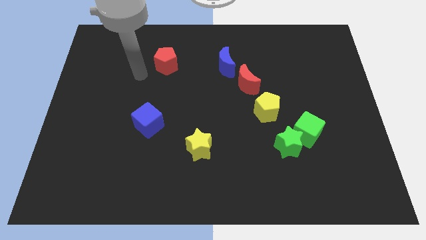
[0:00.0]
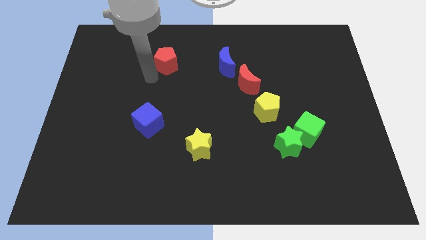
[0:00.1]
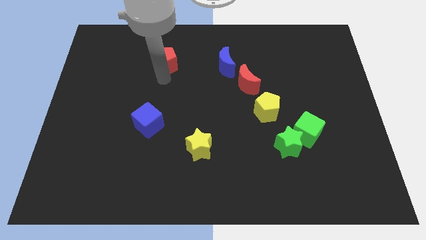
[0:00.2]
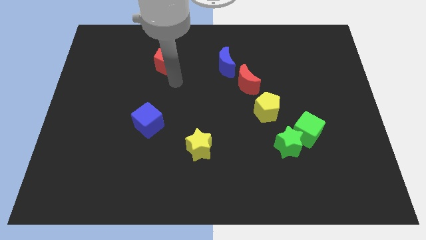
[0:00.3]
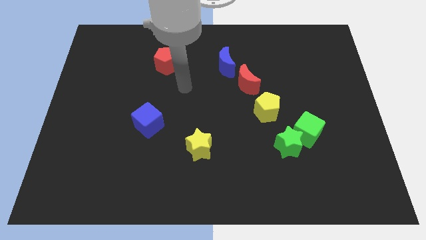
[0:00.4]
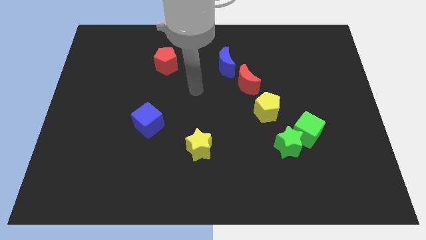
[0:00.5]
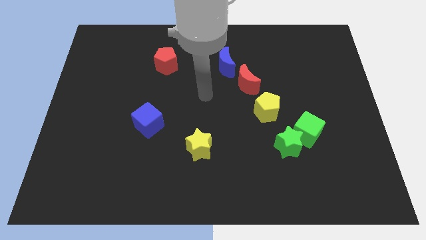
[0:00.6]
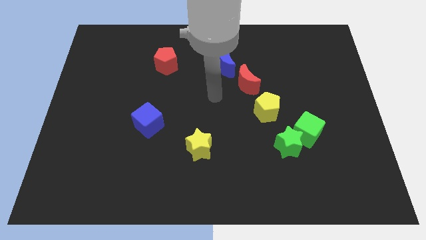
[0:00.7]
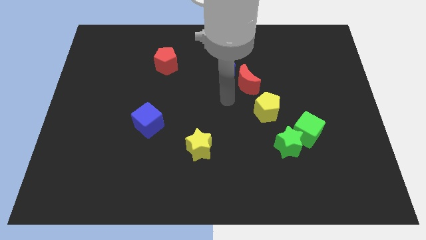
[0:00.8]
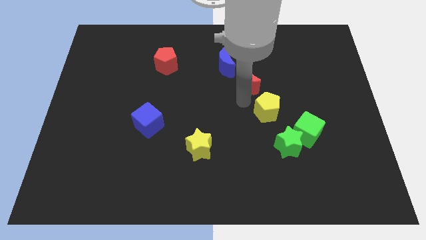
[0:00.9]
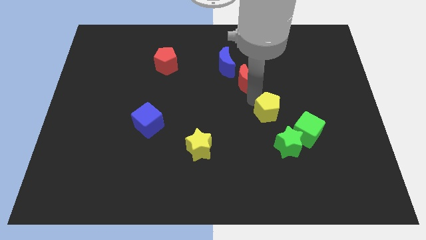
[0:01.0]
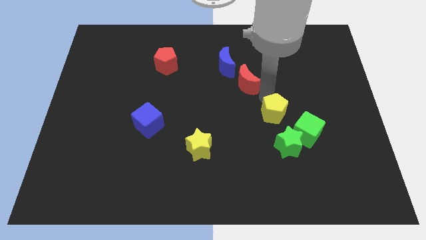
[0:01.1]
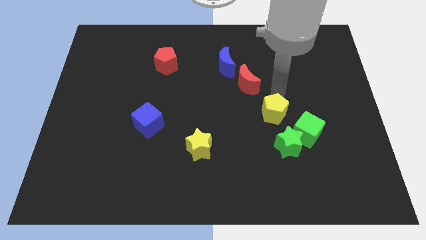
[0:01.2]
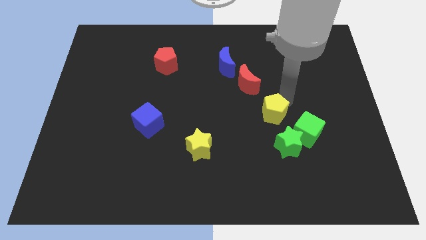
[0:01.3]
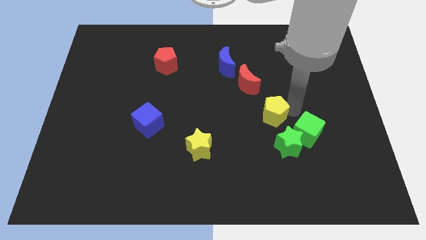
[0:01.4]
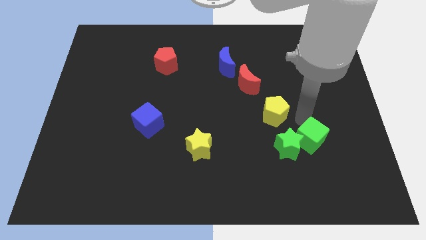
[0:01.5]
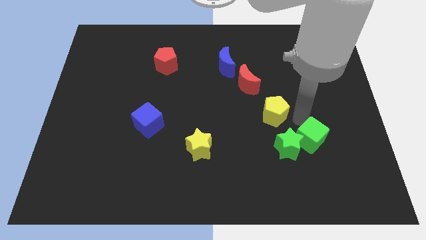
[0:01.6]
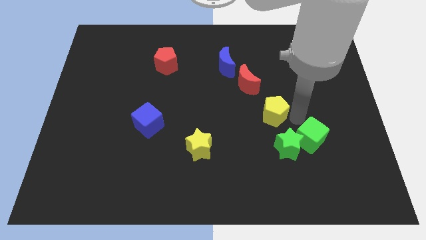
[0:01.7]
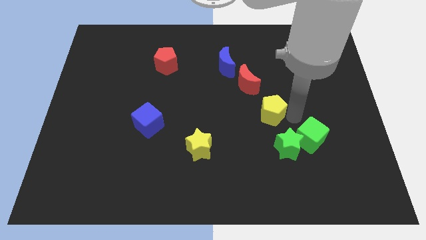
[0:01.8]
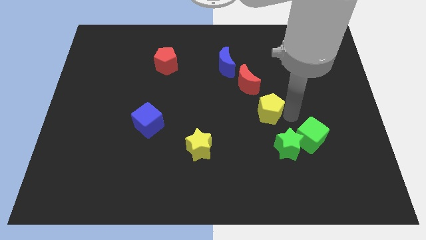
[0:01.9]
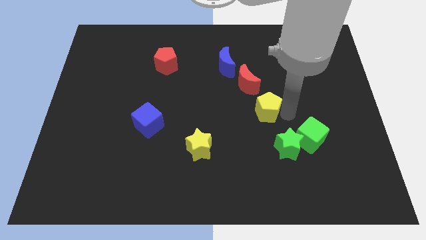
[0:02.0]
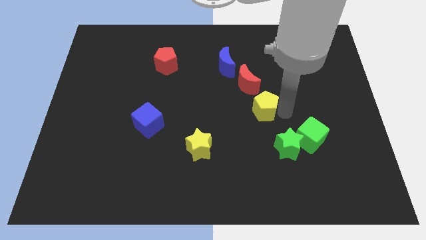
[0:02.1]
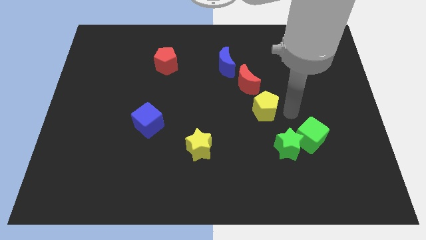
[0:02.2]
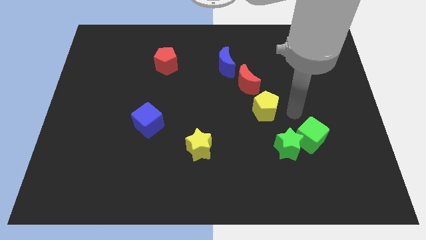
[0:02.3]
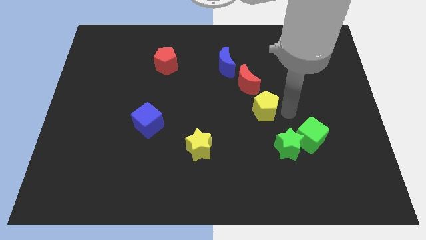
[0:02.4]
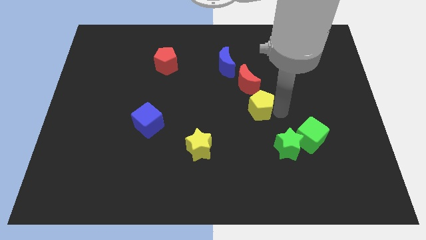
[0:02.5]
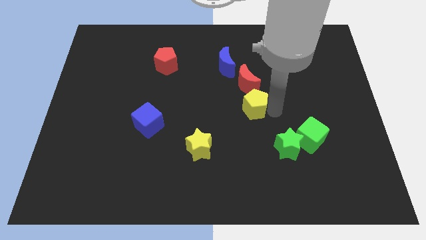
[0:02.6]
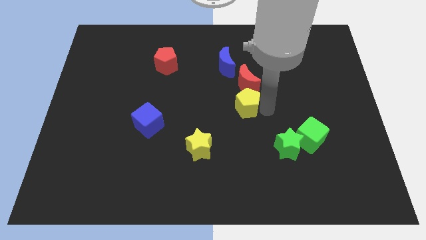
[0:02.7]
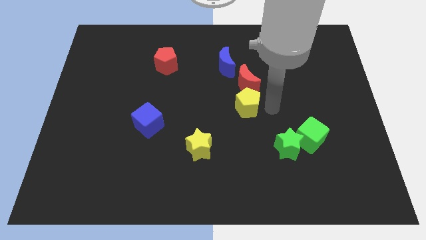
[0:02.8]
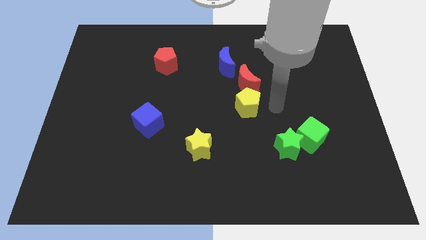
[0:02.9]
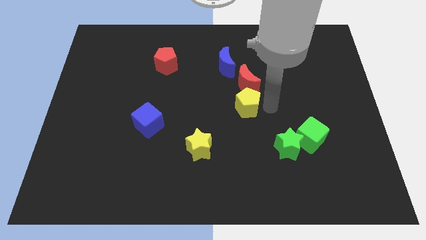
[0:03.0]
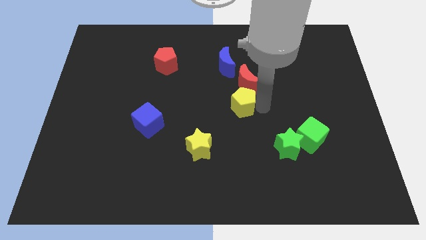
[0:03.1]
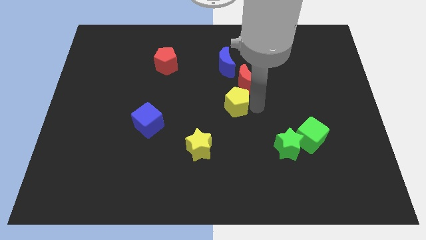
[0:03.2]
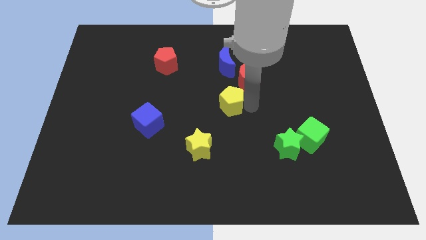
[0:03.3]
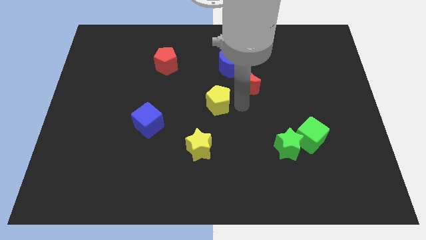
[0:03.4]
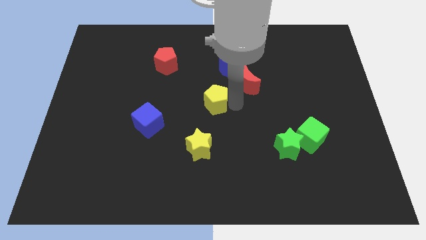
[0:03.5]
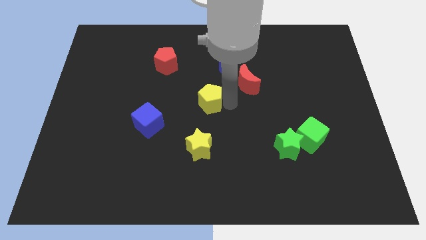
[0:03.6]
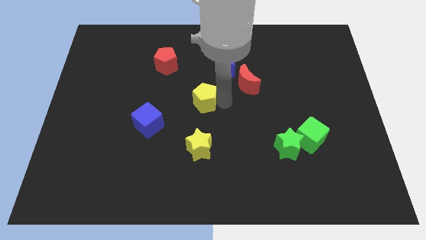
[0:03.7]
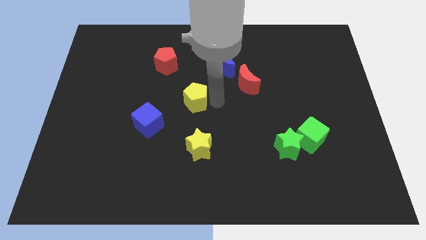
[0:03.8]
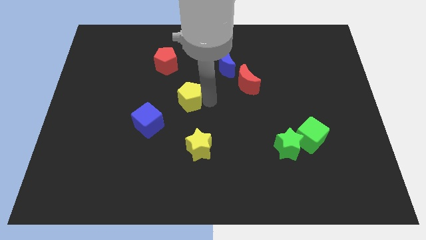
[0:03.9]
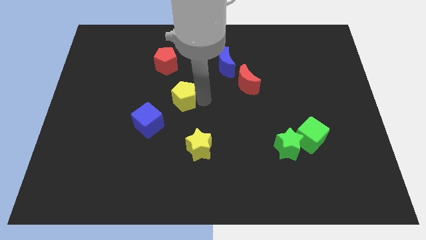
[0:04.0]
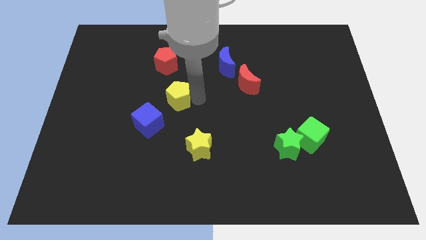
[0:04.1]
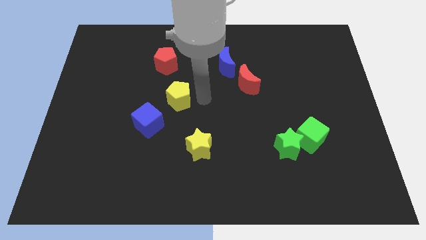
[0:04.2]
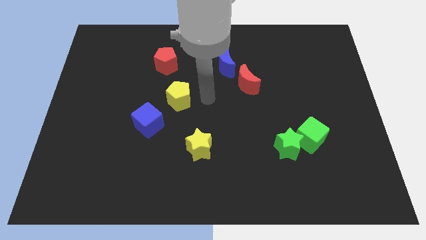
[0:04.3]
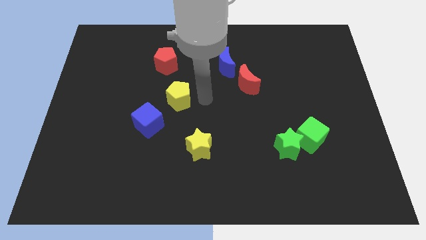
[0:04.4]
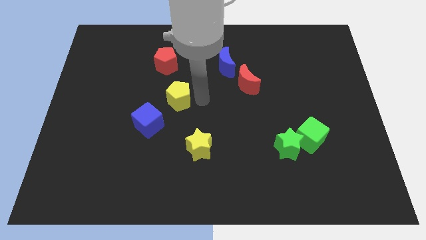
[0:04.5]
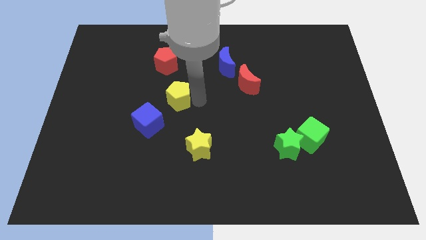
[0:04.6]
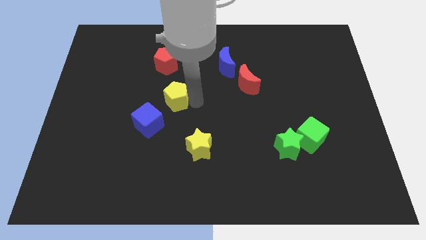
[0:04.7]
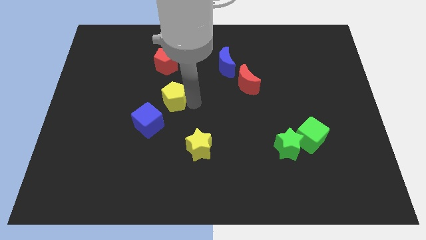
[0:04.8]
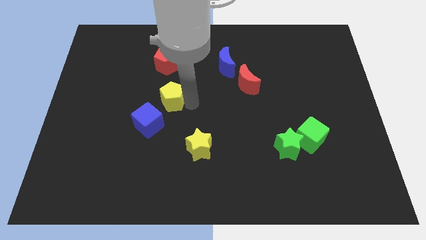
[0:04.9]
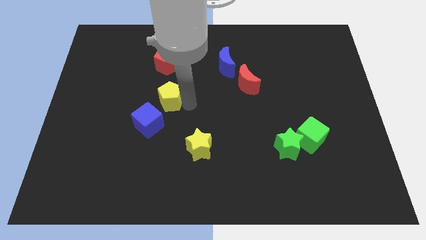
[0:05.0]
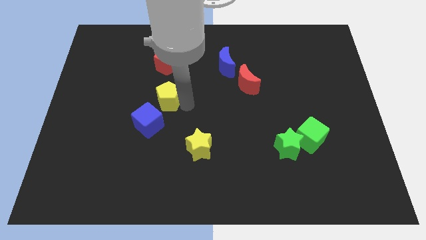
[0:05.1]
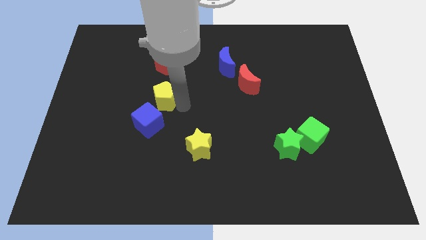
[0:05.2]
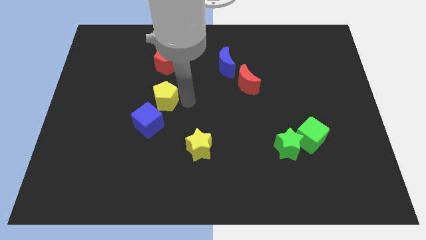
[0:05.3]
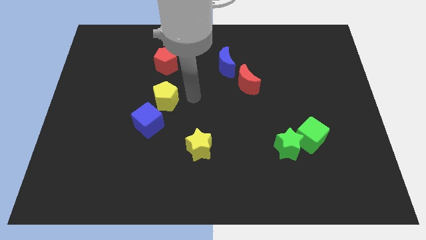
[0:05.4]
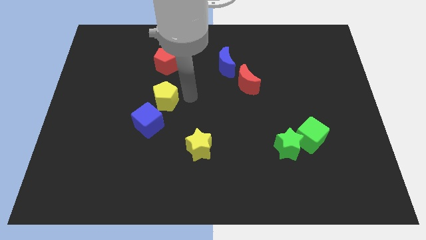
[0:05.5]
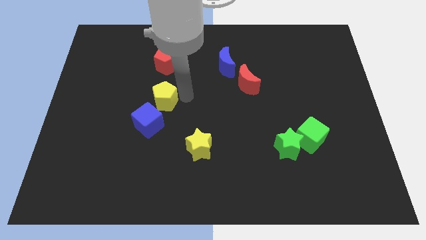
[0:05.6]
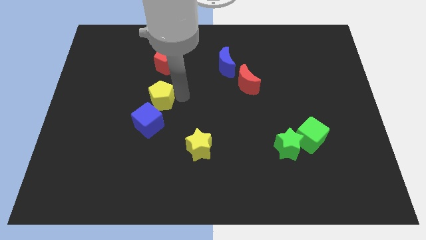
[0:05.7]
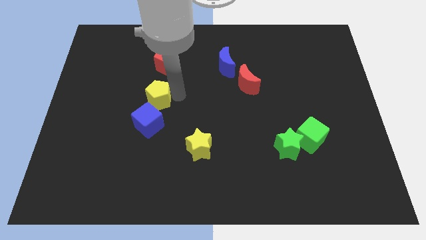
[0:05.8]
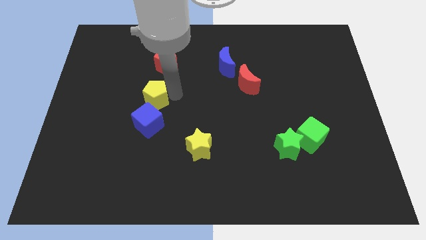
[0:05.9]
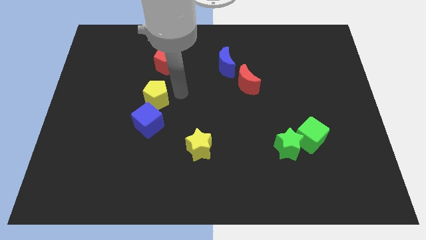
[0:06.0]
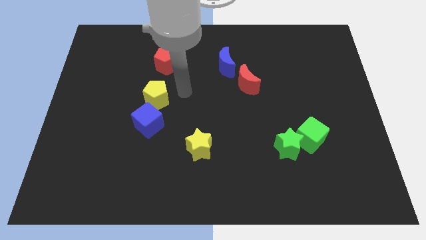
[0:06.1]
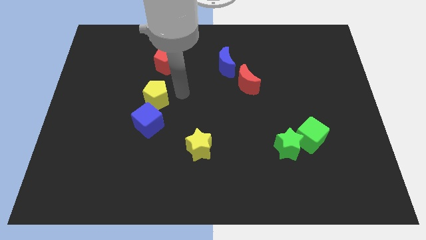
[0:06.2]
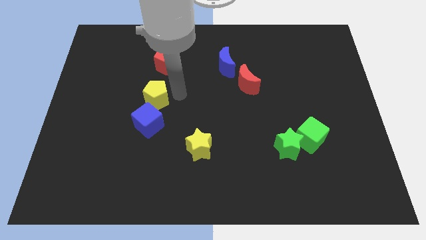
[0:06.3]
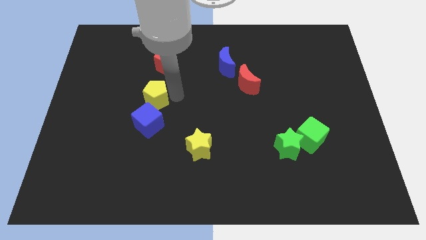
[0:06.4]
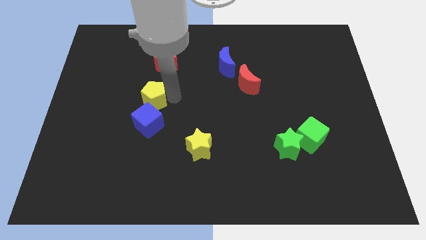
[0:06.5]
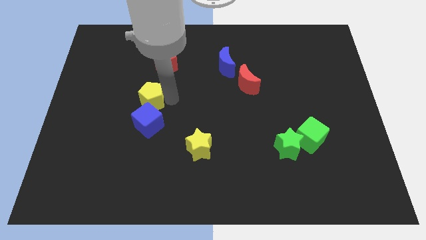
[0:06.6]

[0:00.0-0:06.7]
slide the yellow pentagon to the top left of the blue cube
